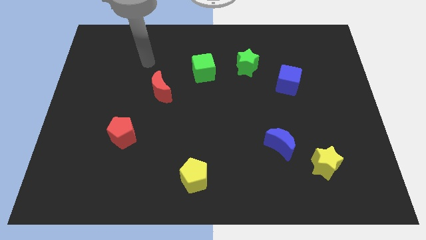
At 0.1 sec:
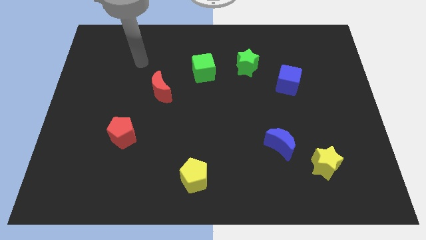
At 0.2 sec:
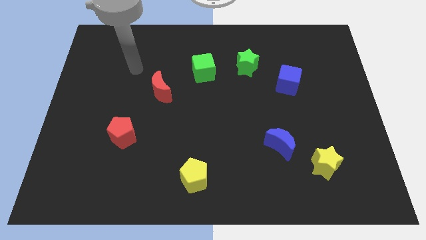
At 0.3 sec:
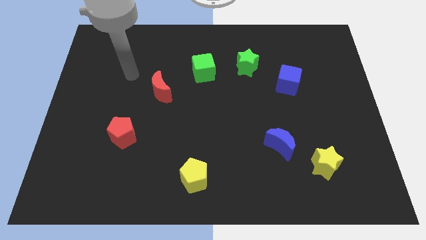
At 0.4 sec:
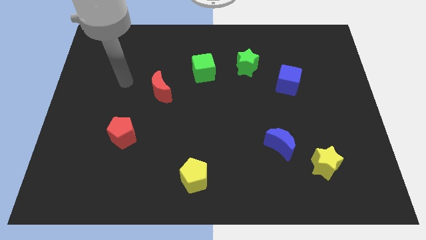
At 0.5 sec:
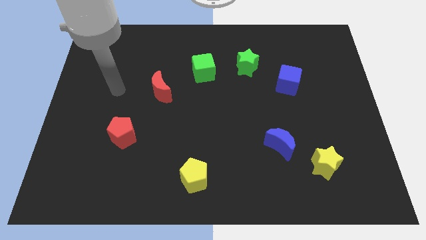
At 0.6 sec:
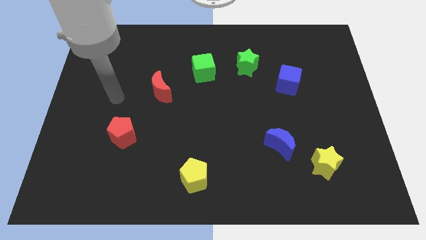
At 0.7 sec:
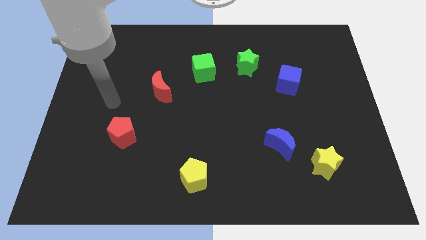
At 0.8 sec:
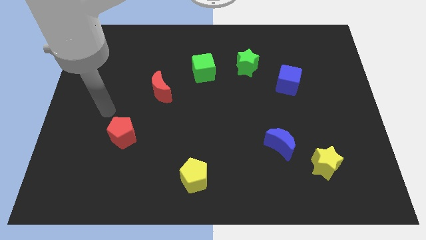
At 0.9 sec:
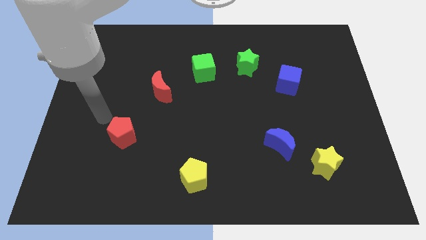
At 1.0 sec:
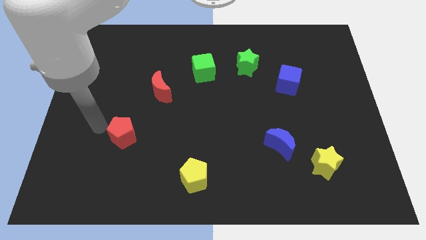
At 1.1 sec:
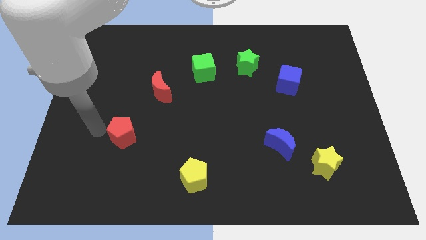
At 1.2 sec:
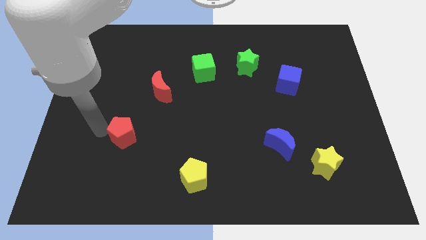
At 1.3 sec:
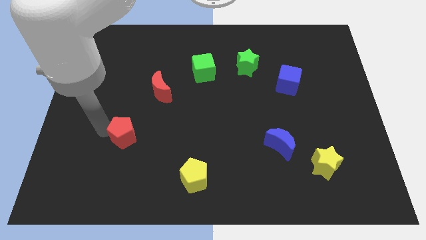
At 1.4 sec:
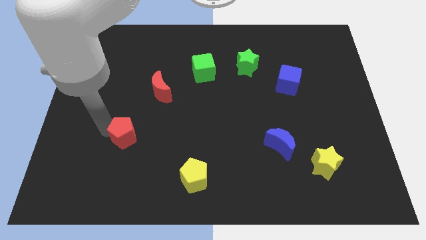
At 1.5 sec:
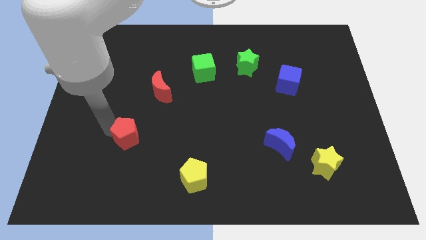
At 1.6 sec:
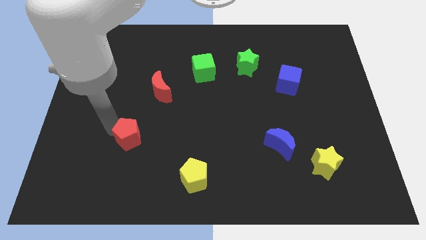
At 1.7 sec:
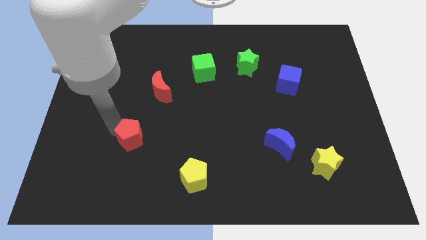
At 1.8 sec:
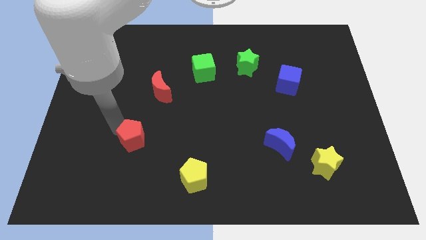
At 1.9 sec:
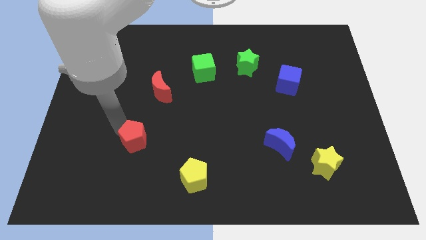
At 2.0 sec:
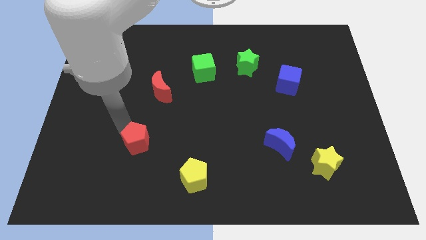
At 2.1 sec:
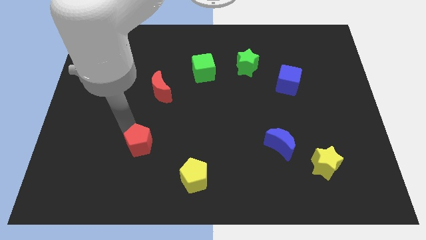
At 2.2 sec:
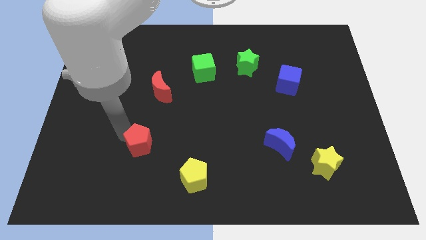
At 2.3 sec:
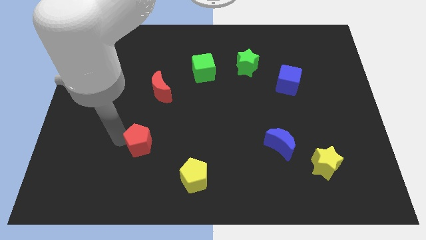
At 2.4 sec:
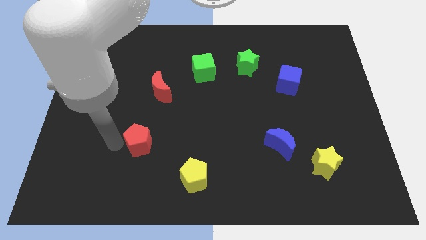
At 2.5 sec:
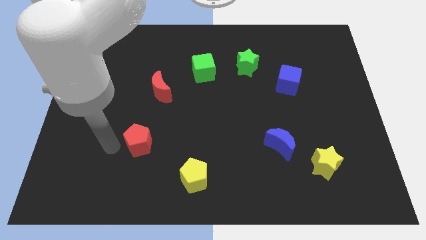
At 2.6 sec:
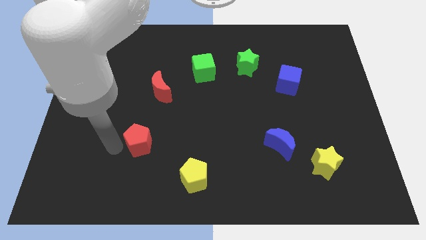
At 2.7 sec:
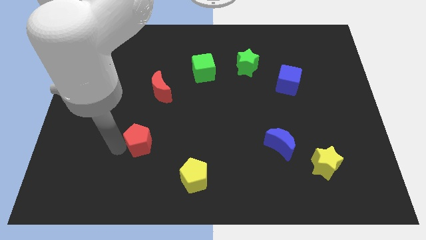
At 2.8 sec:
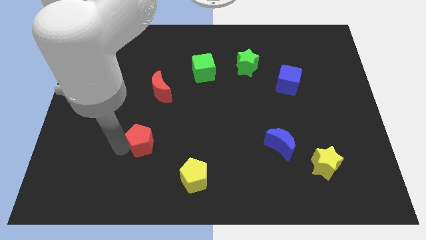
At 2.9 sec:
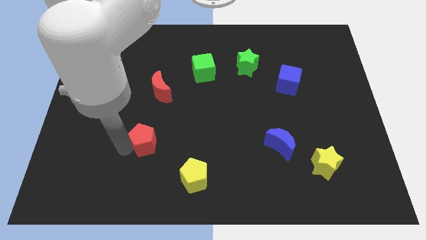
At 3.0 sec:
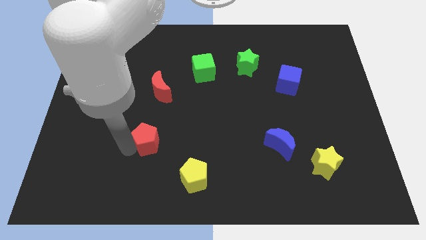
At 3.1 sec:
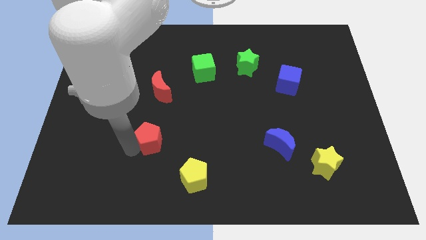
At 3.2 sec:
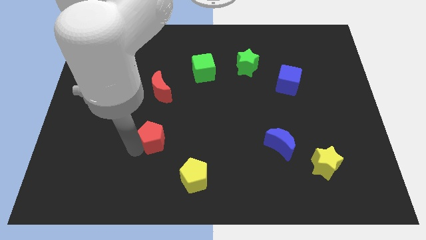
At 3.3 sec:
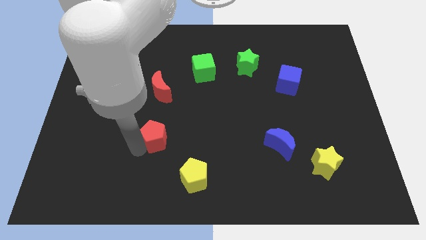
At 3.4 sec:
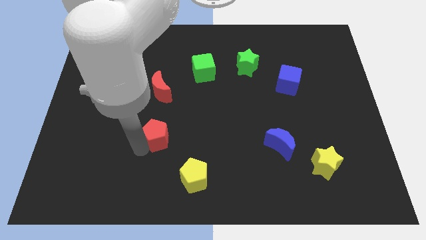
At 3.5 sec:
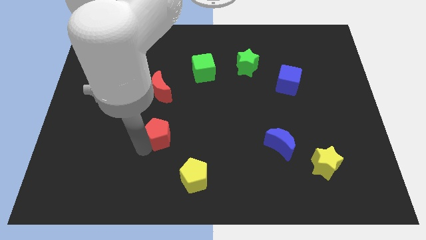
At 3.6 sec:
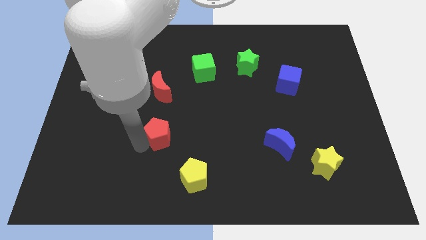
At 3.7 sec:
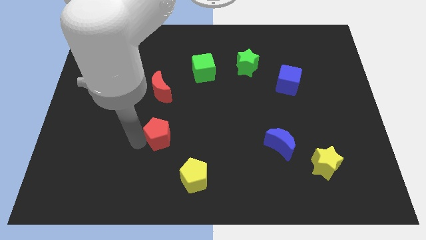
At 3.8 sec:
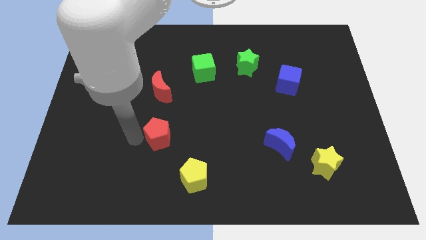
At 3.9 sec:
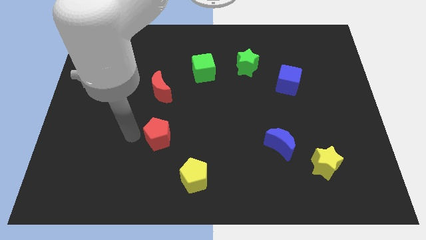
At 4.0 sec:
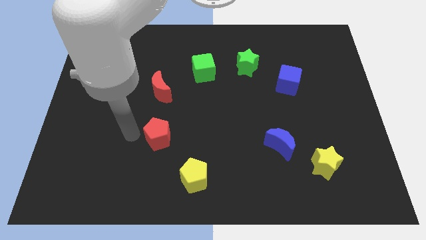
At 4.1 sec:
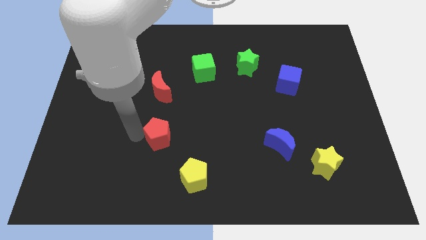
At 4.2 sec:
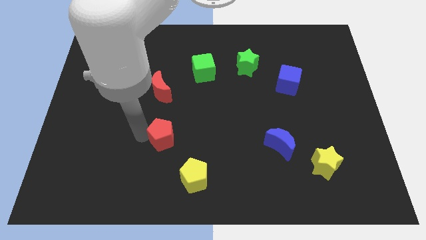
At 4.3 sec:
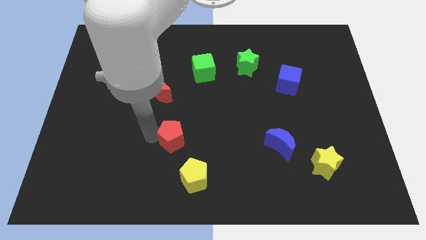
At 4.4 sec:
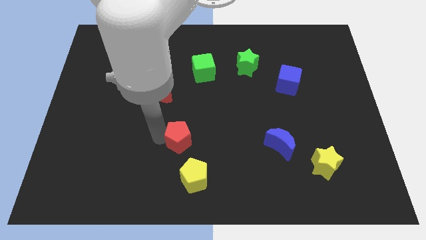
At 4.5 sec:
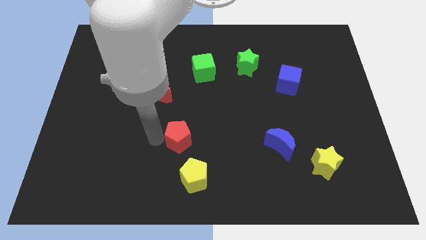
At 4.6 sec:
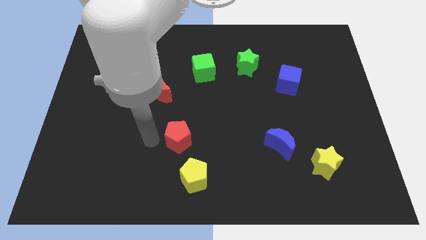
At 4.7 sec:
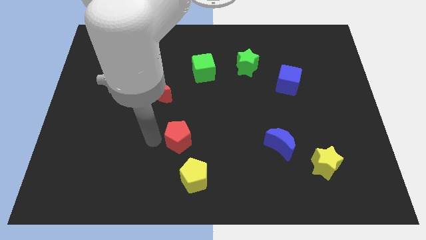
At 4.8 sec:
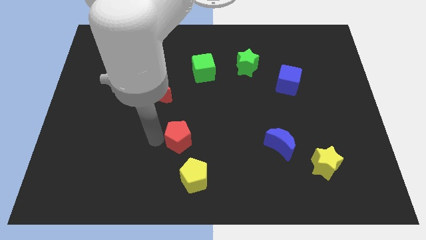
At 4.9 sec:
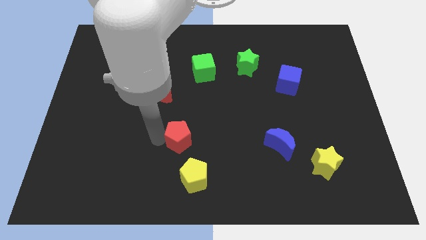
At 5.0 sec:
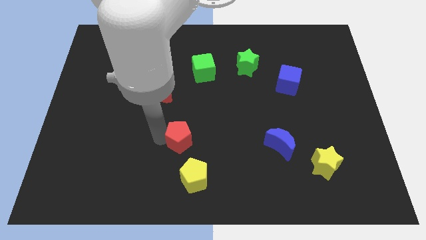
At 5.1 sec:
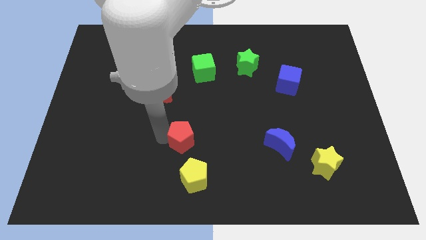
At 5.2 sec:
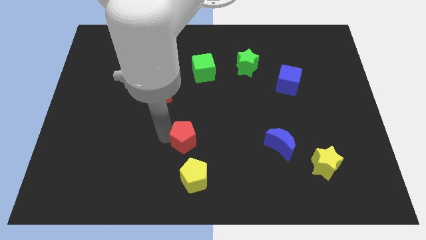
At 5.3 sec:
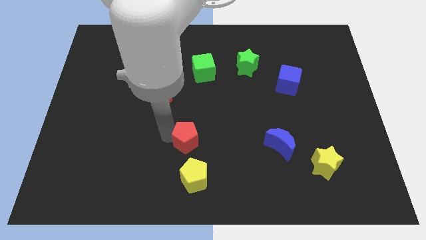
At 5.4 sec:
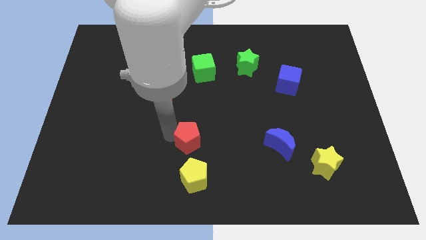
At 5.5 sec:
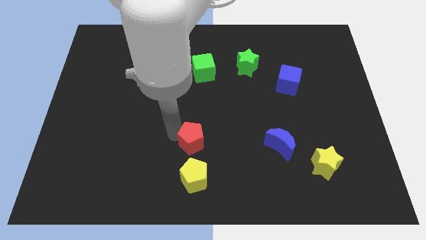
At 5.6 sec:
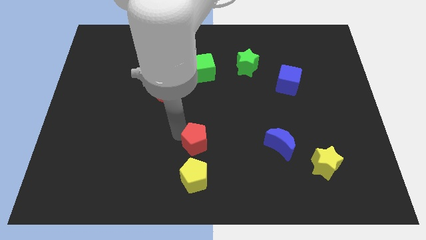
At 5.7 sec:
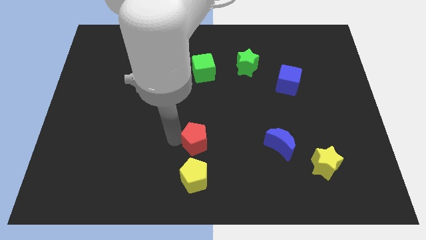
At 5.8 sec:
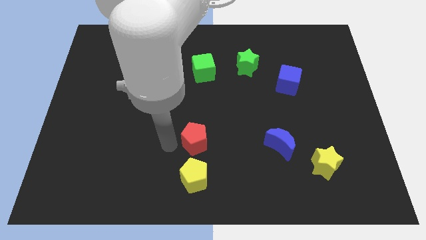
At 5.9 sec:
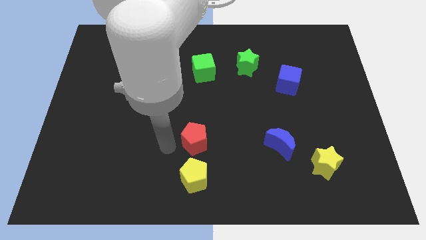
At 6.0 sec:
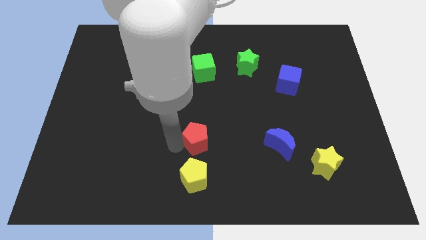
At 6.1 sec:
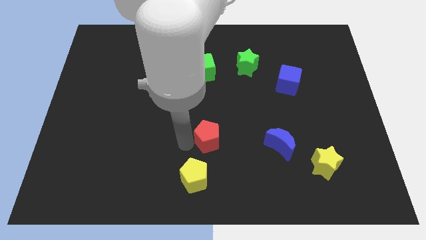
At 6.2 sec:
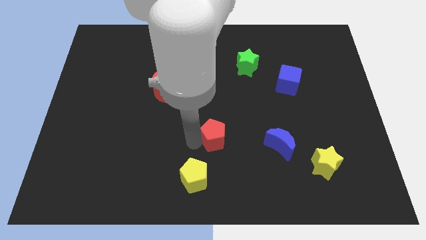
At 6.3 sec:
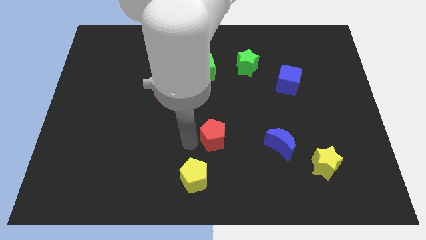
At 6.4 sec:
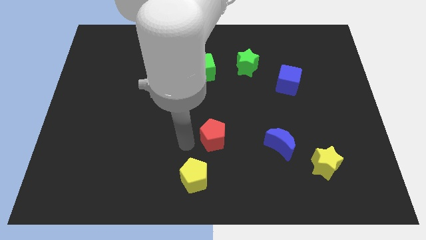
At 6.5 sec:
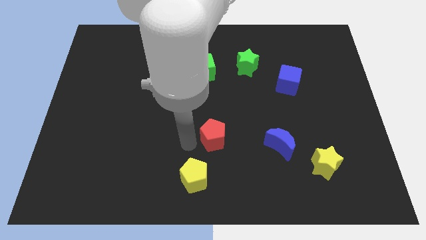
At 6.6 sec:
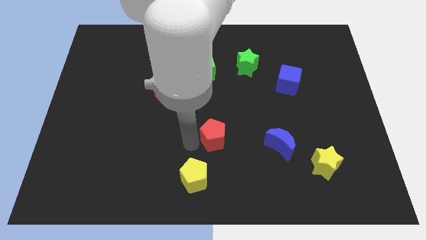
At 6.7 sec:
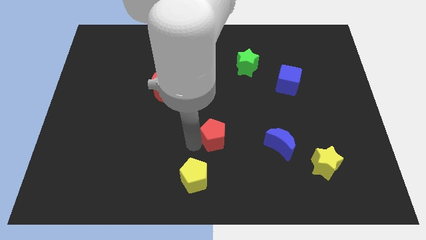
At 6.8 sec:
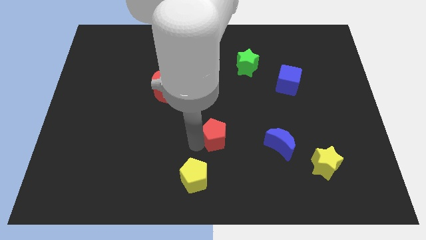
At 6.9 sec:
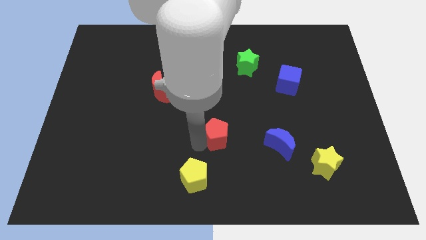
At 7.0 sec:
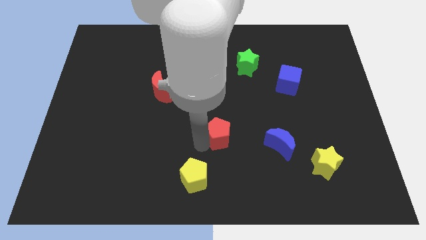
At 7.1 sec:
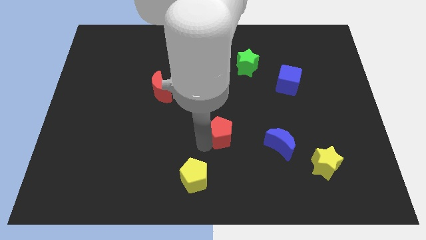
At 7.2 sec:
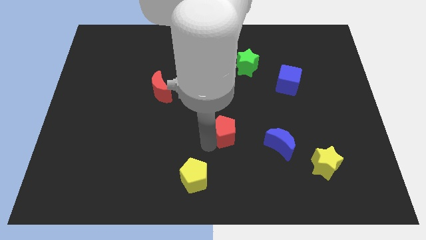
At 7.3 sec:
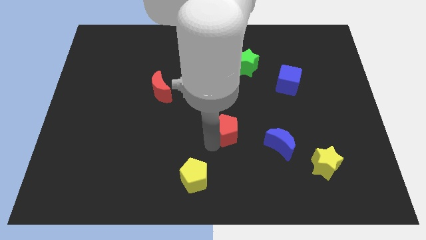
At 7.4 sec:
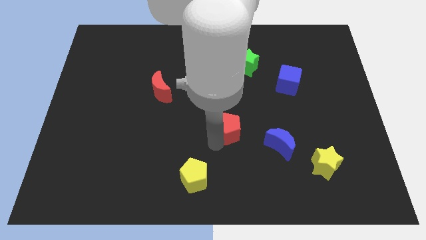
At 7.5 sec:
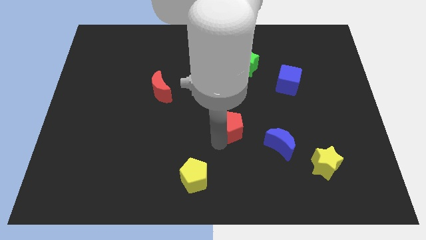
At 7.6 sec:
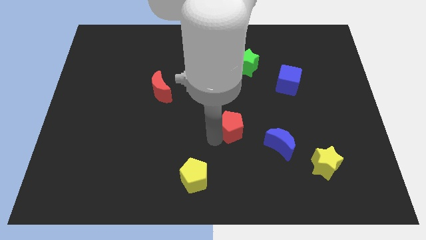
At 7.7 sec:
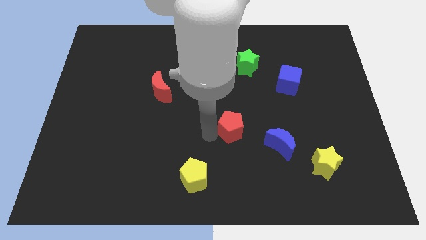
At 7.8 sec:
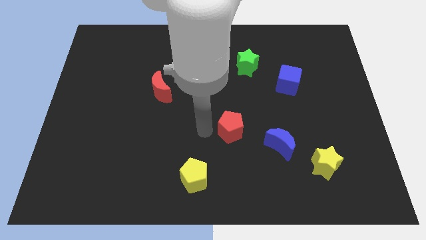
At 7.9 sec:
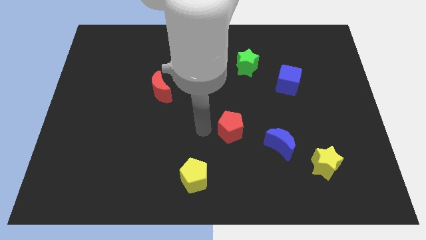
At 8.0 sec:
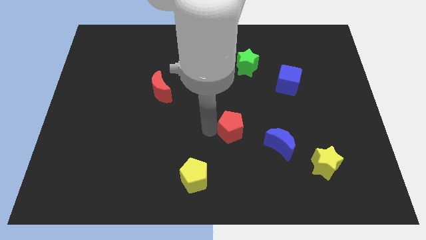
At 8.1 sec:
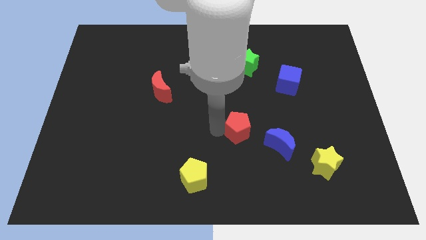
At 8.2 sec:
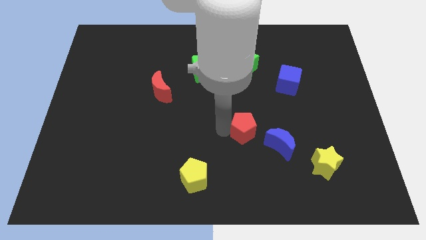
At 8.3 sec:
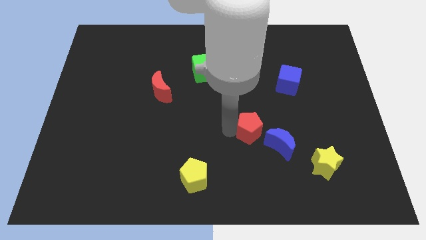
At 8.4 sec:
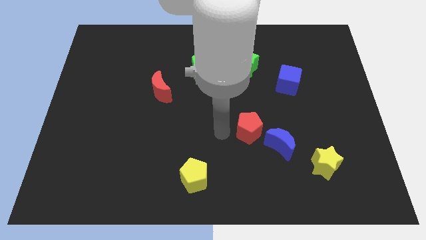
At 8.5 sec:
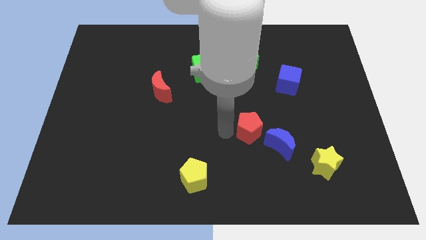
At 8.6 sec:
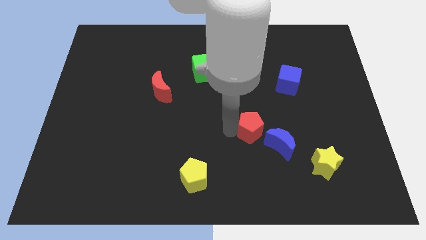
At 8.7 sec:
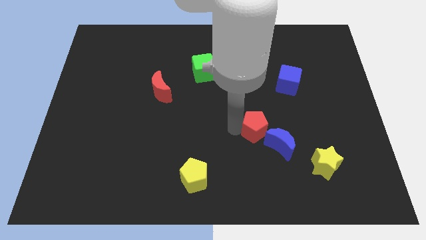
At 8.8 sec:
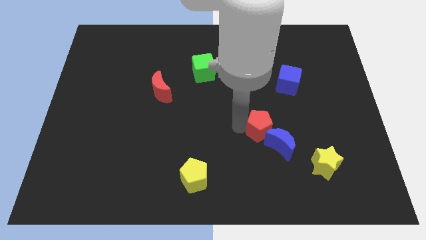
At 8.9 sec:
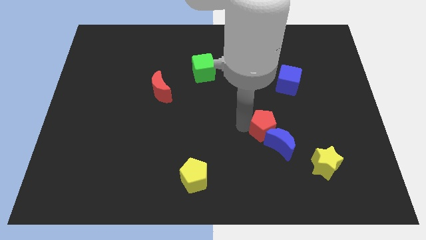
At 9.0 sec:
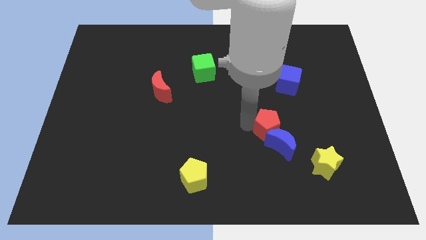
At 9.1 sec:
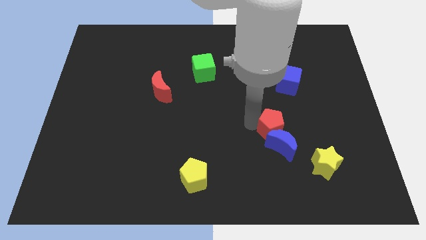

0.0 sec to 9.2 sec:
move the red pentagon diagonally up and to the right of the blue moon
